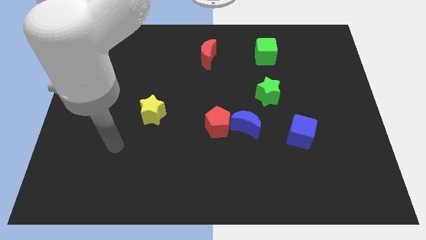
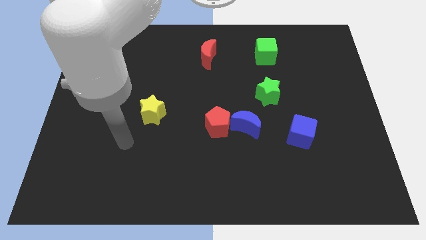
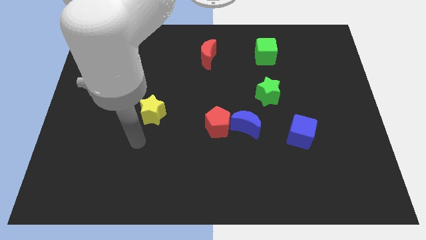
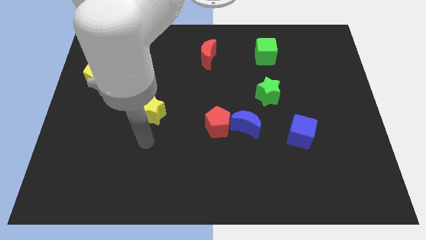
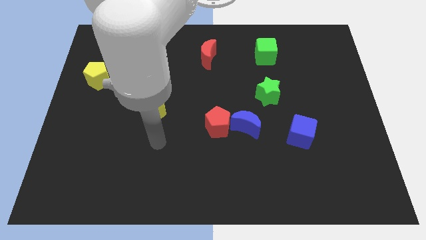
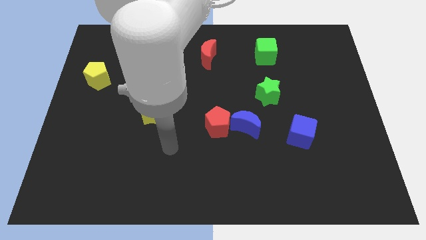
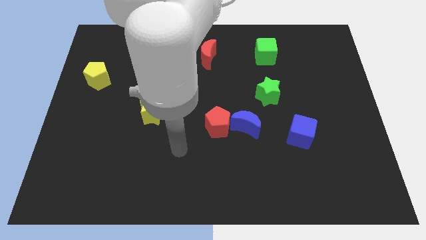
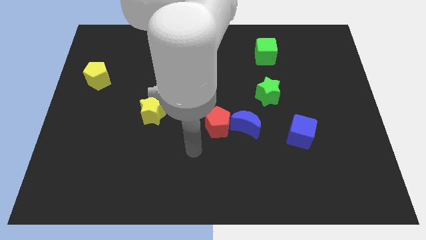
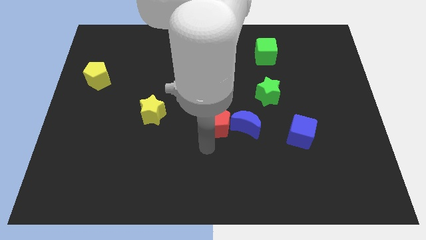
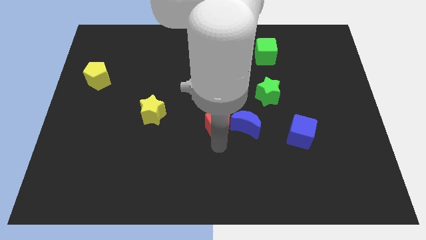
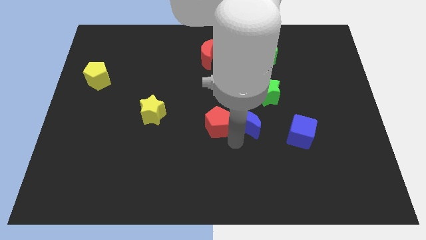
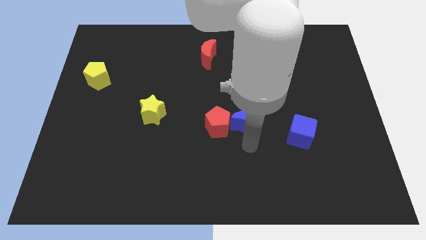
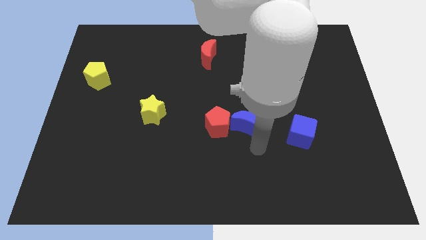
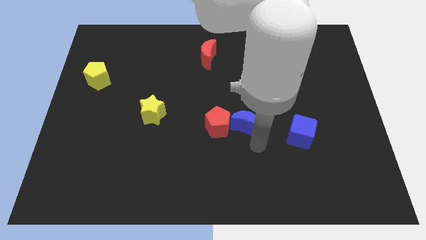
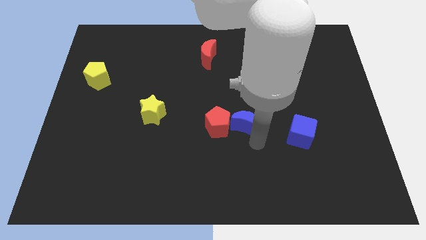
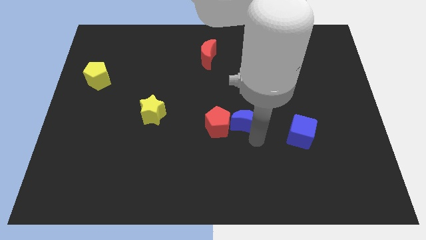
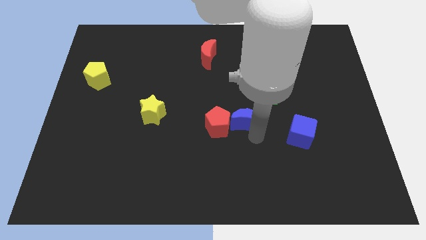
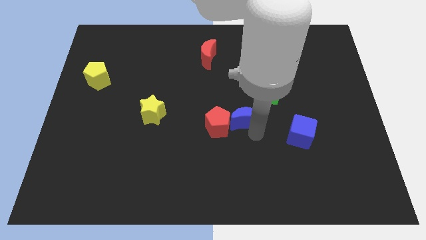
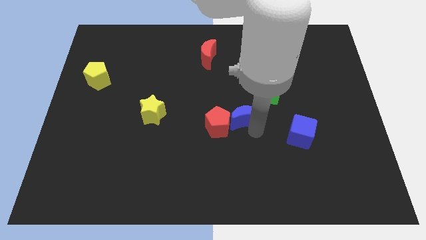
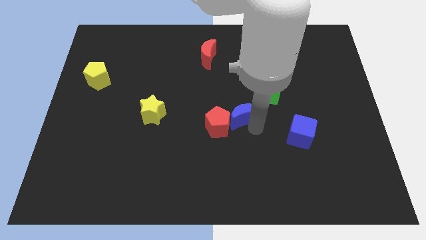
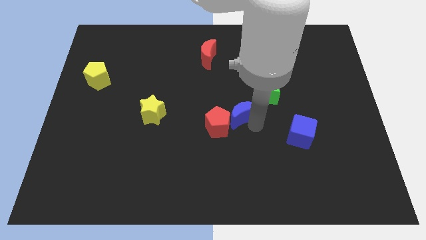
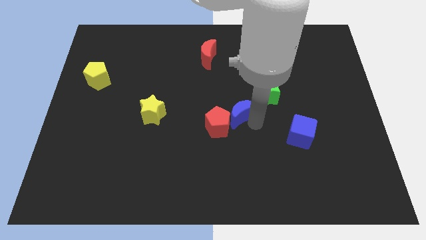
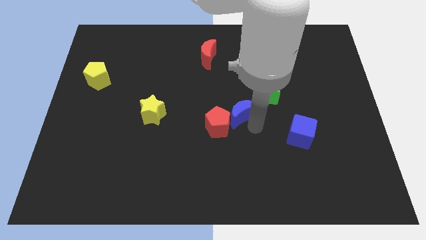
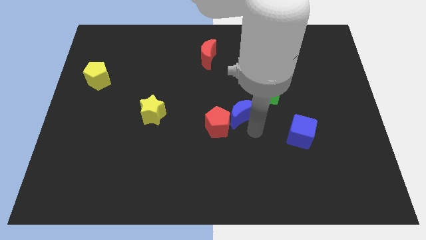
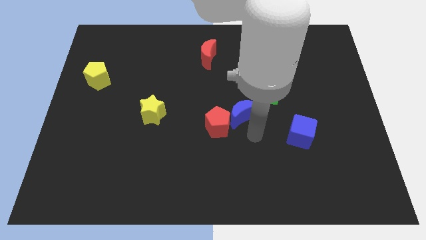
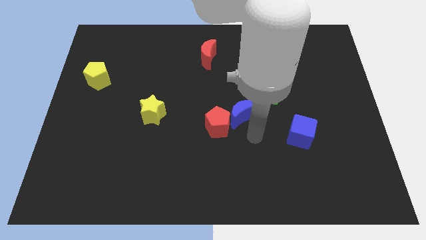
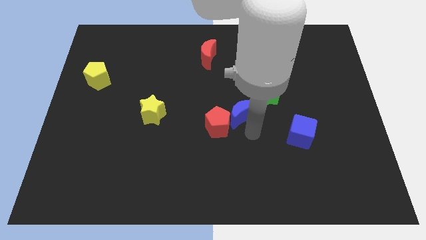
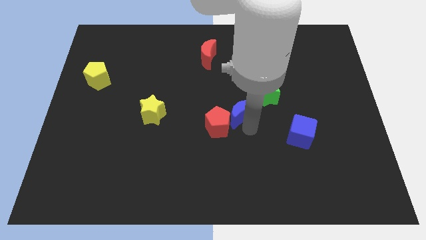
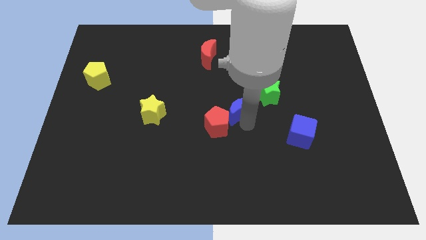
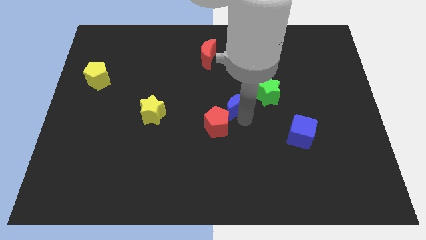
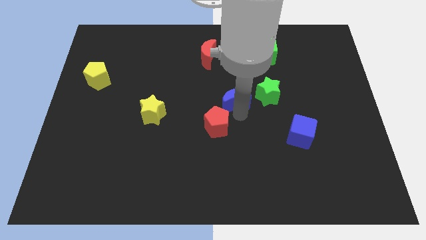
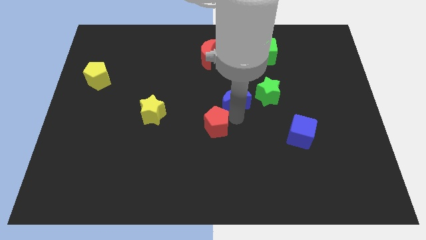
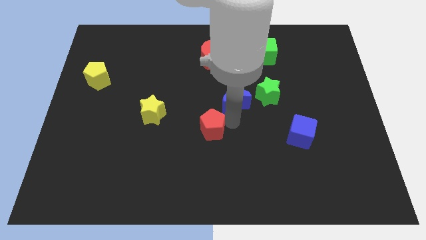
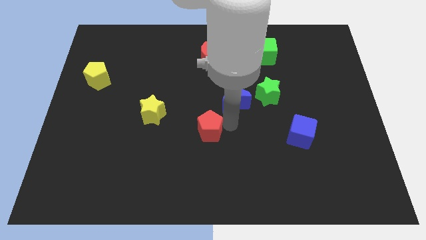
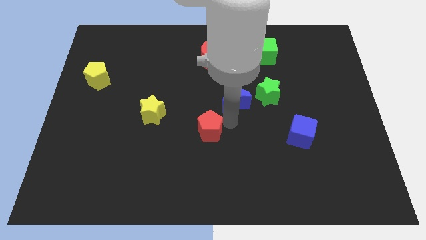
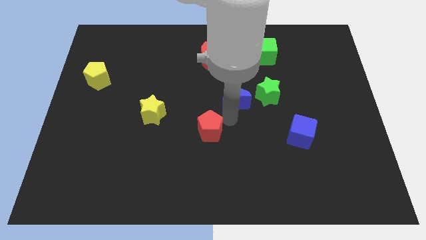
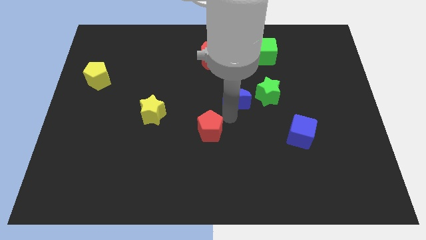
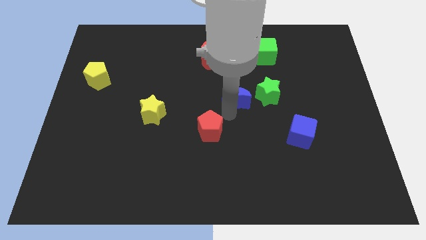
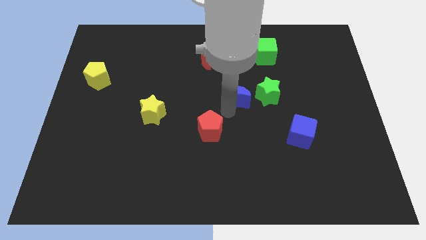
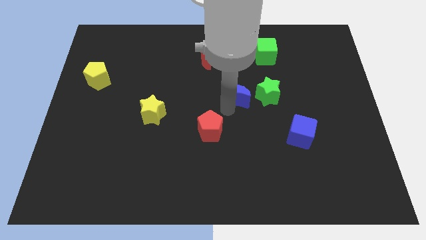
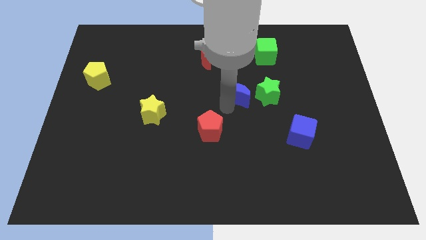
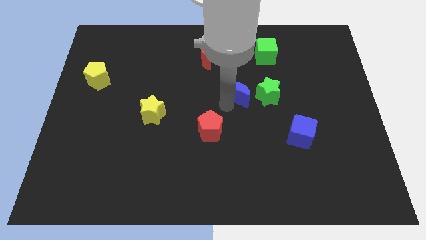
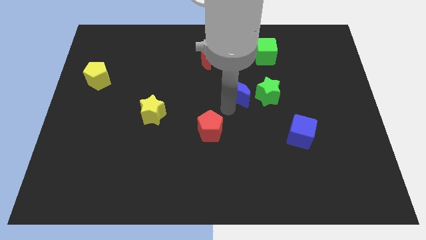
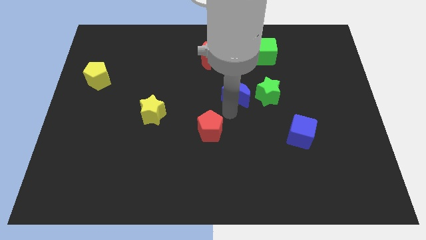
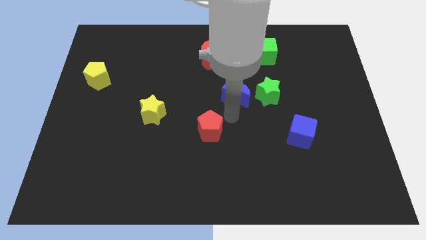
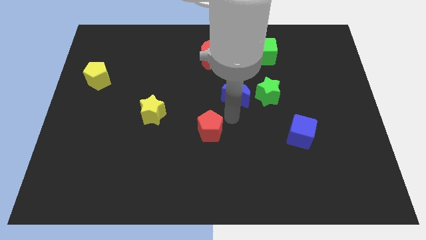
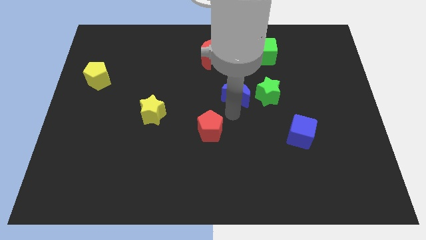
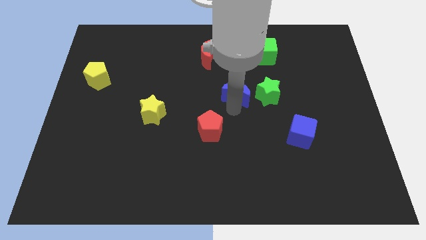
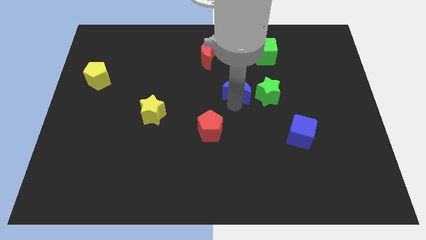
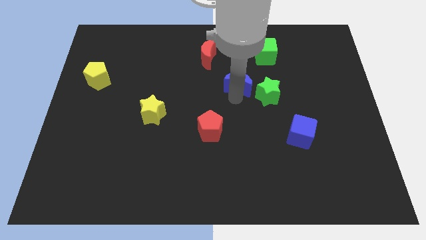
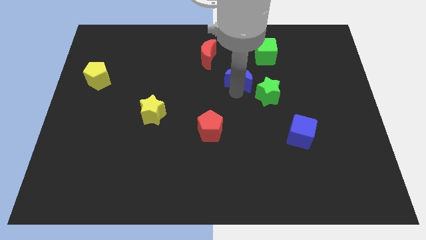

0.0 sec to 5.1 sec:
push the blue moon diagonally down and to the left of the green cube

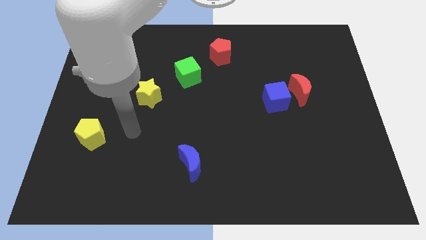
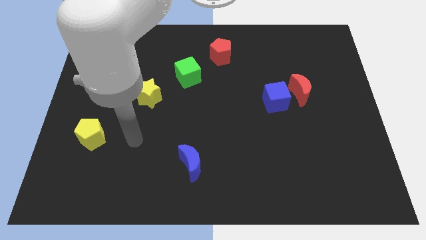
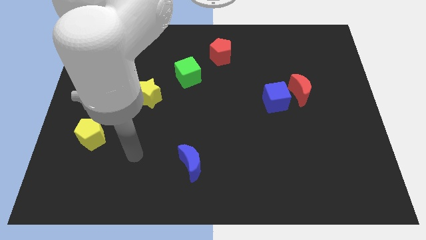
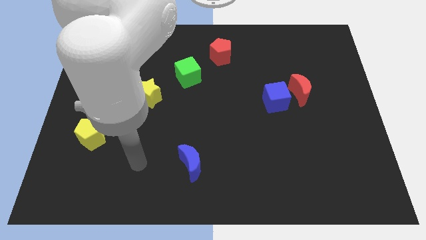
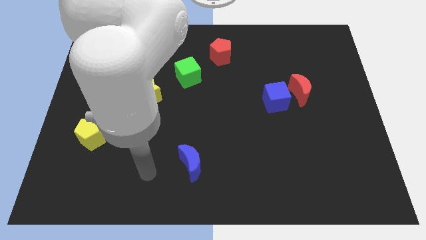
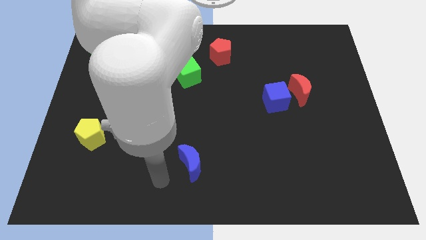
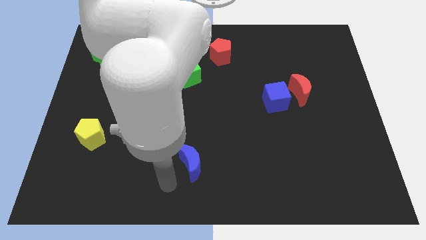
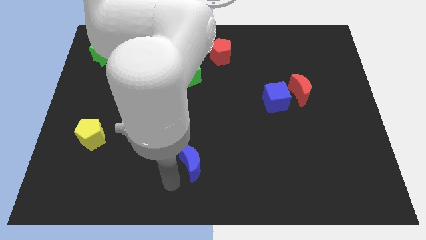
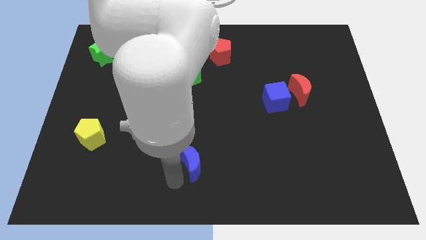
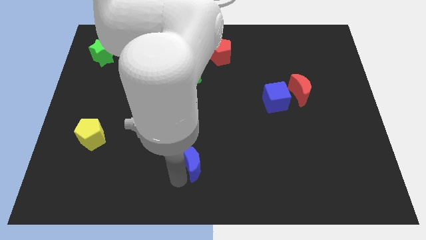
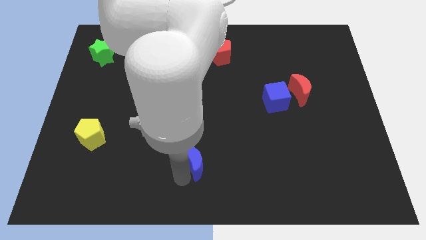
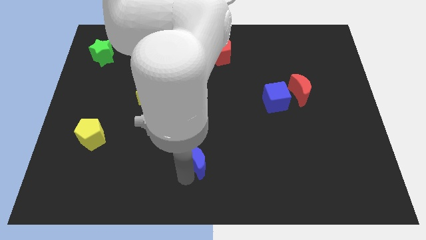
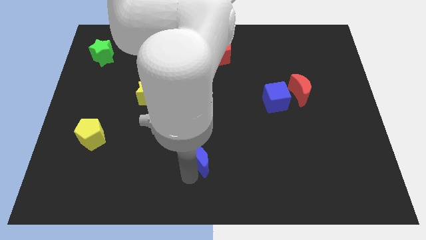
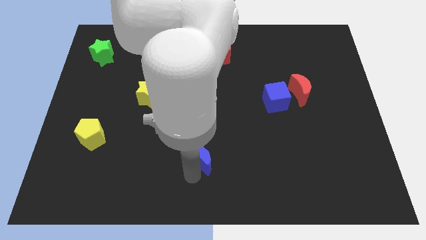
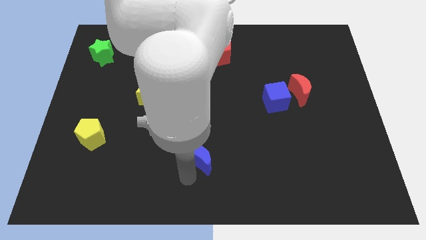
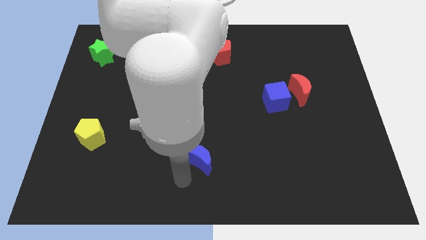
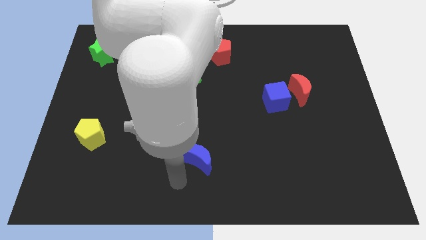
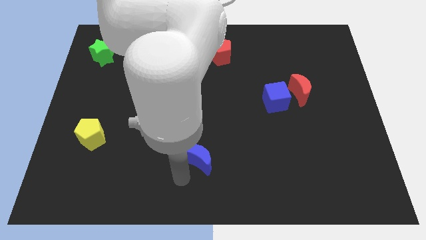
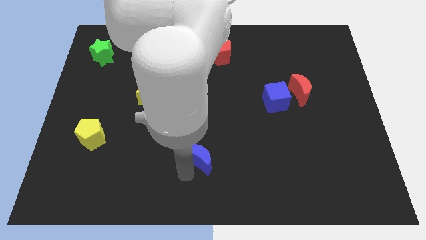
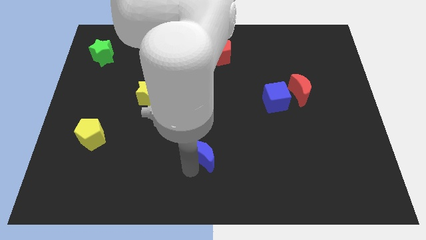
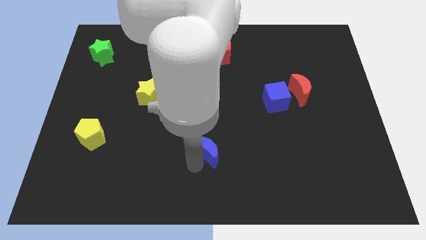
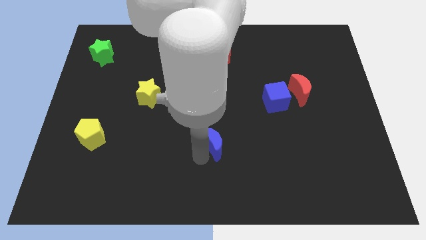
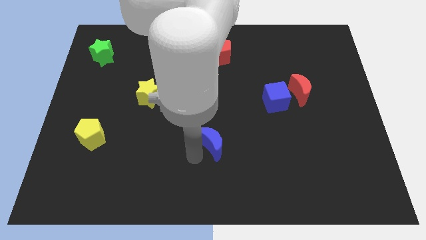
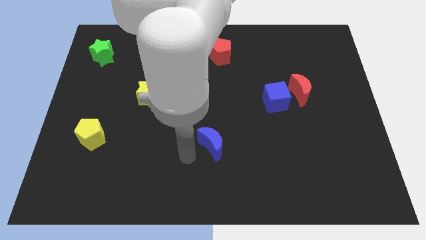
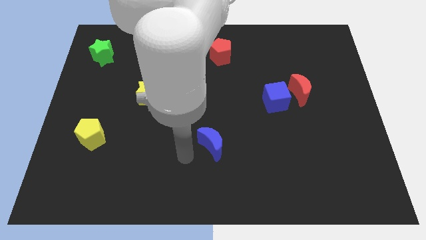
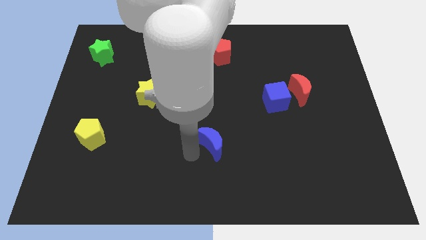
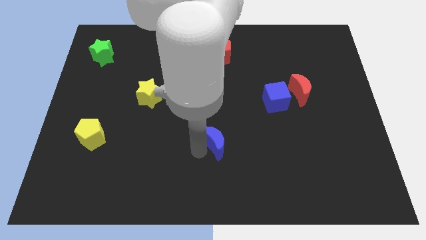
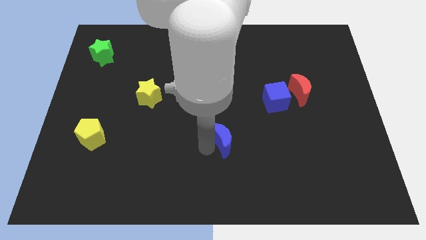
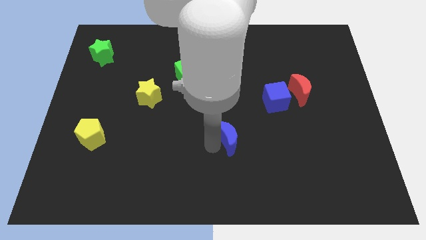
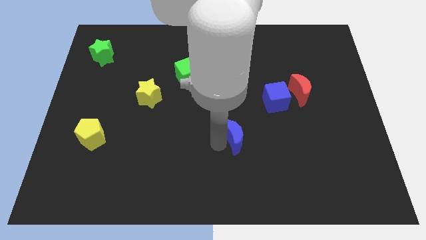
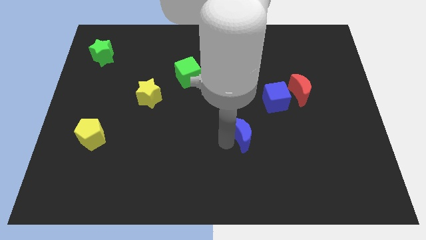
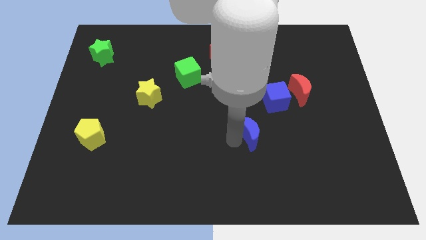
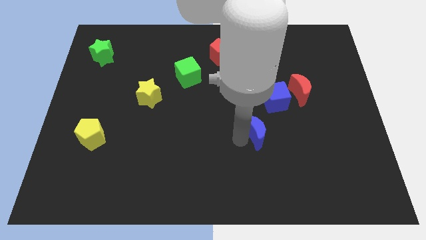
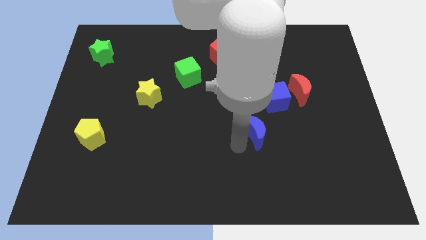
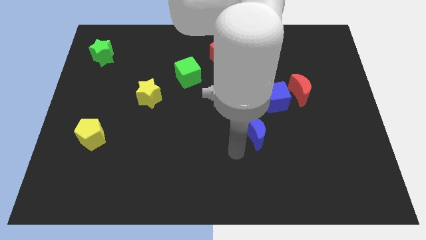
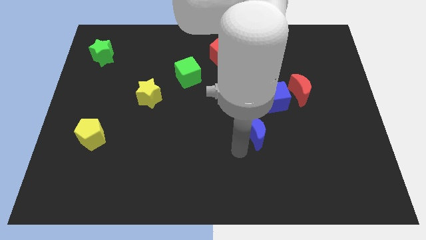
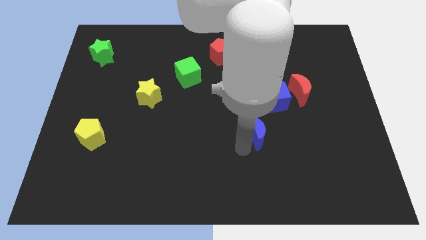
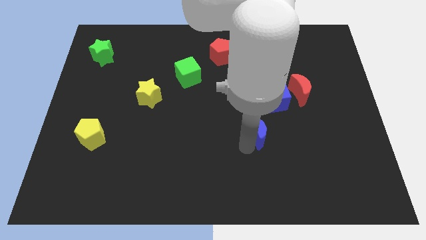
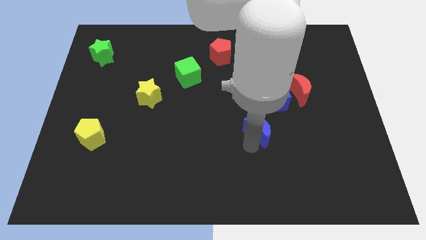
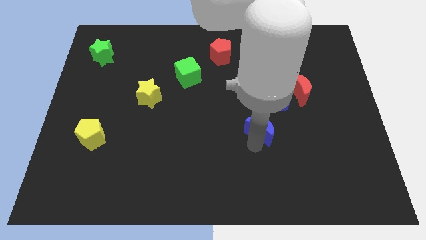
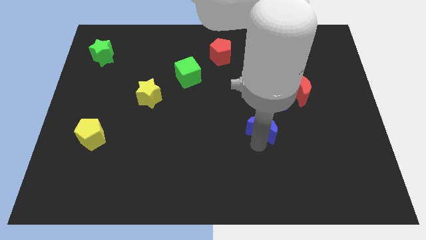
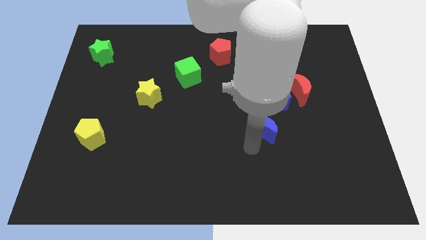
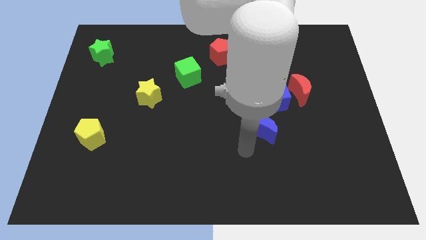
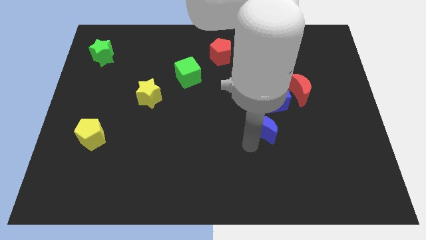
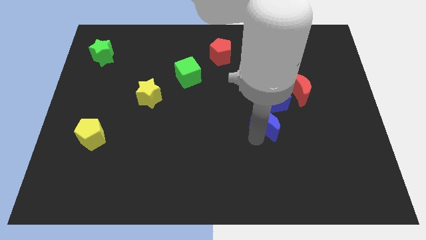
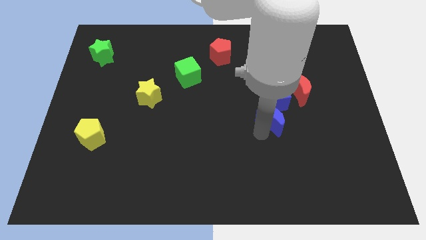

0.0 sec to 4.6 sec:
slide the blue moon to the bottom left side of the red moon
